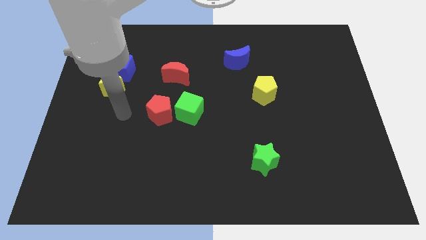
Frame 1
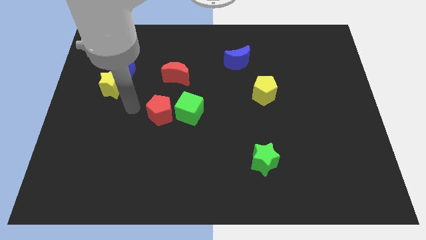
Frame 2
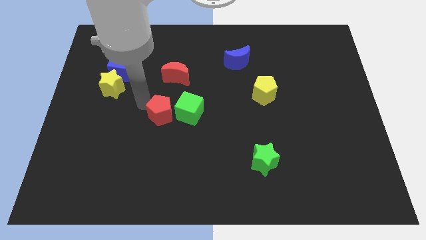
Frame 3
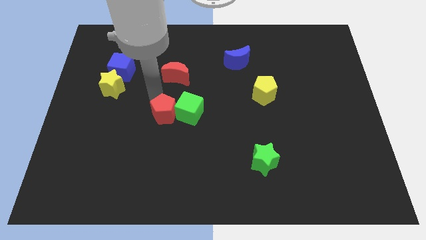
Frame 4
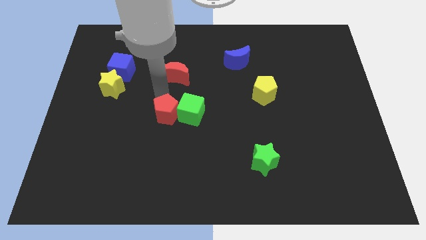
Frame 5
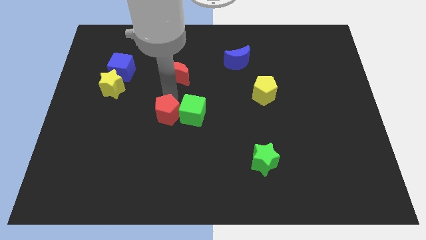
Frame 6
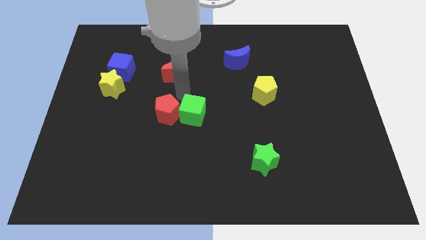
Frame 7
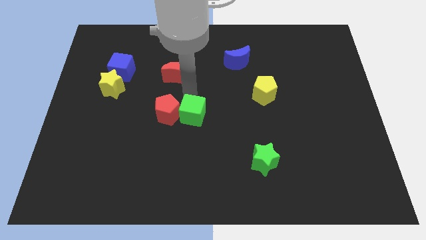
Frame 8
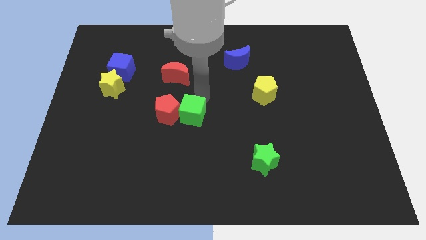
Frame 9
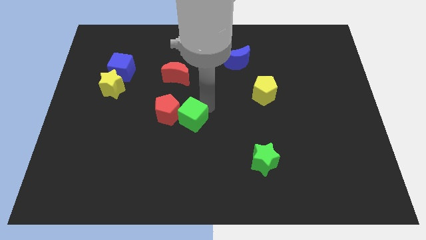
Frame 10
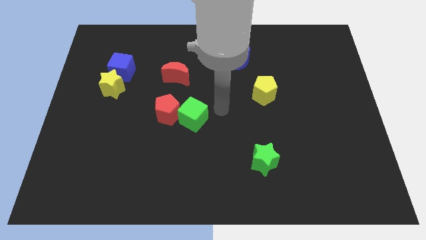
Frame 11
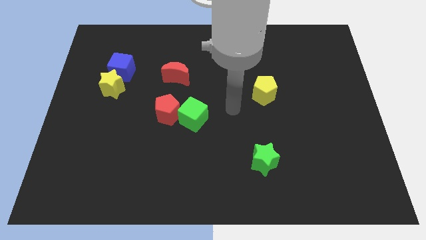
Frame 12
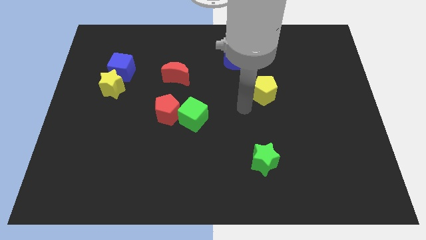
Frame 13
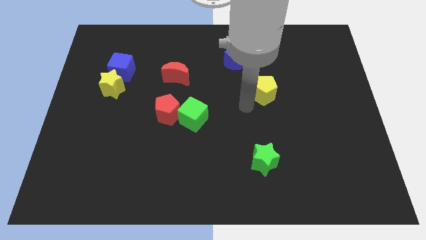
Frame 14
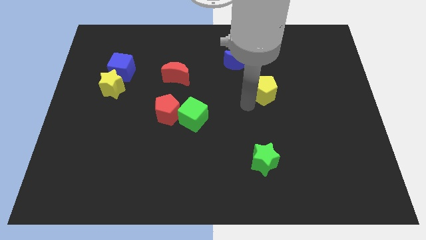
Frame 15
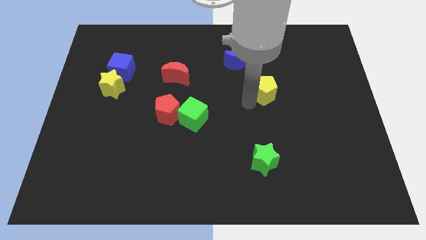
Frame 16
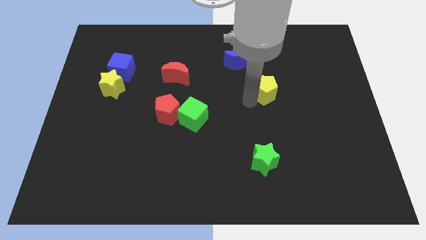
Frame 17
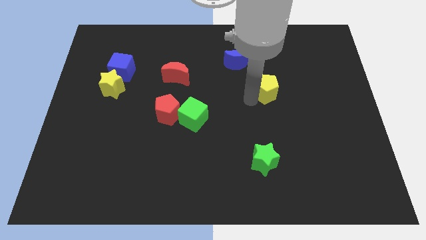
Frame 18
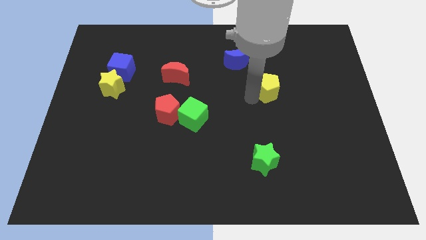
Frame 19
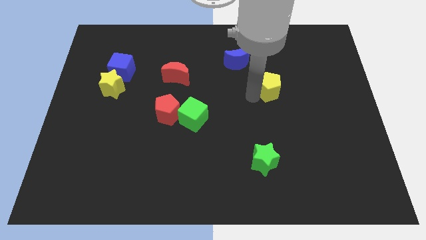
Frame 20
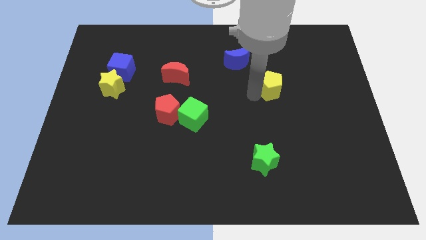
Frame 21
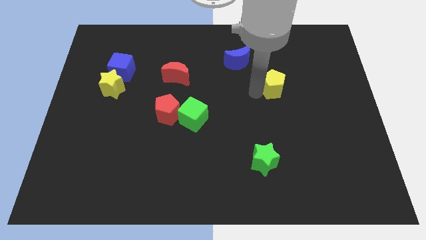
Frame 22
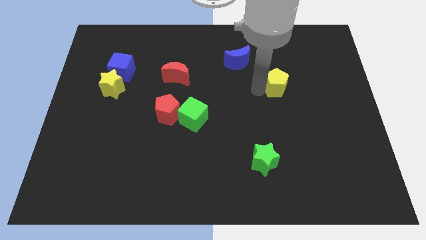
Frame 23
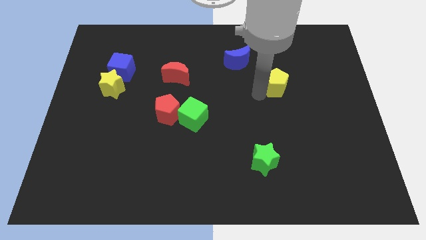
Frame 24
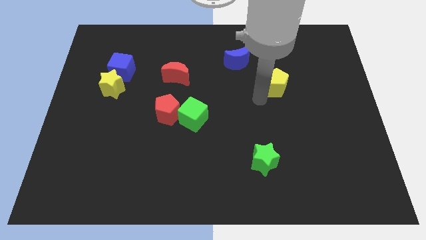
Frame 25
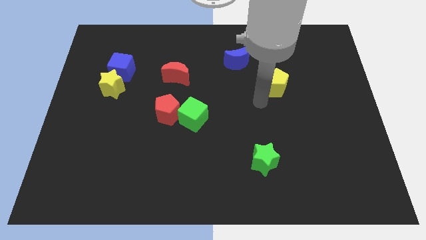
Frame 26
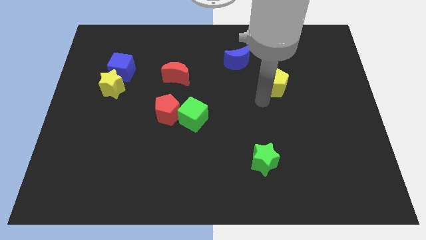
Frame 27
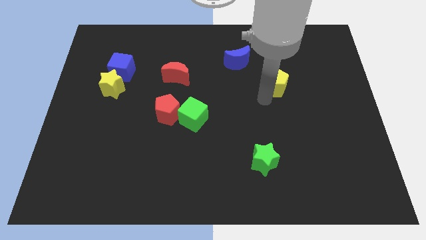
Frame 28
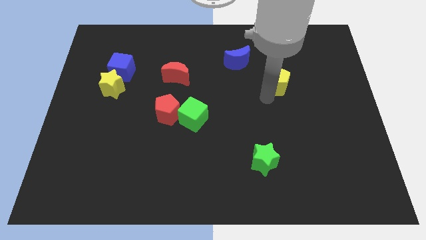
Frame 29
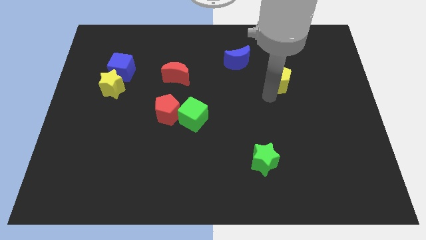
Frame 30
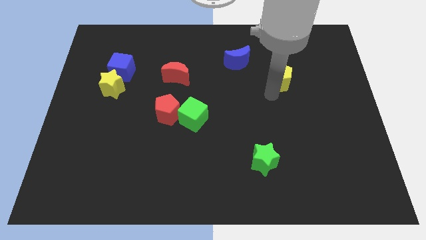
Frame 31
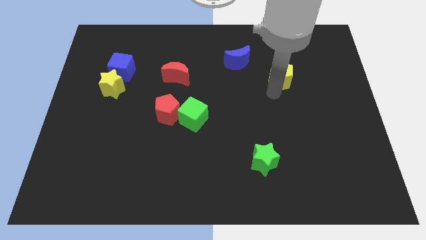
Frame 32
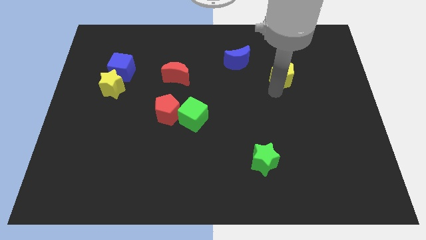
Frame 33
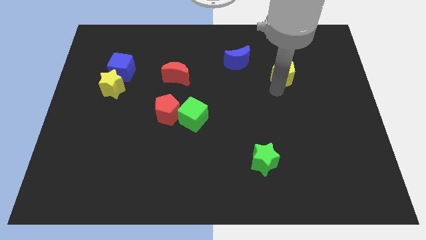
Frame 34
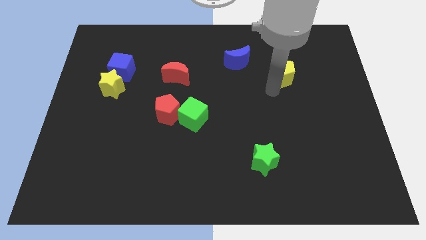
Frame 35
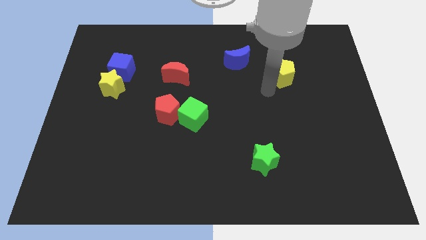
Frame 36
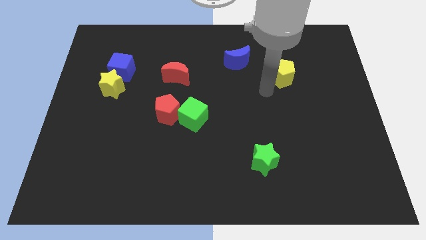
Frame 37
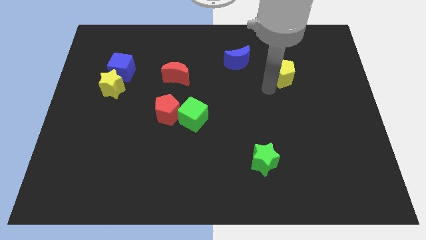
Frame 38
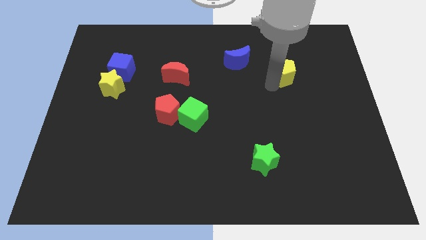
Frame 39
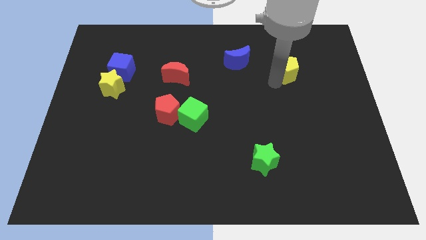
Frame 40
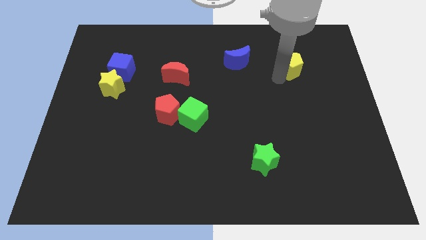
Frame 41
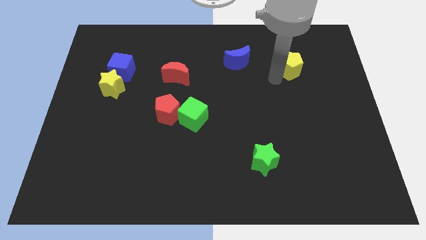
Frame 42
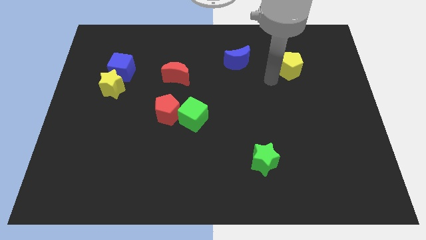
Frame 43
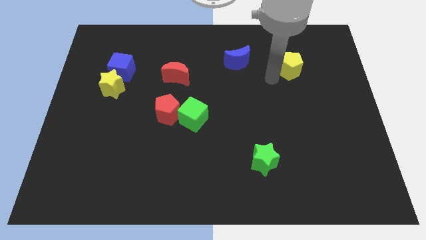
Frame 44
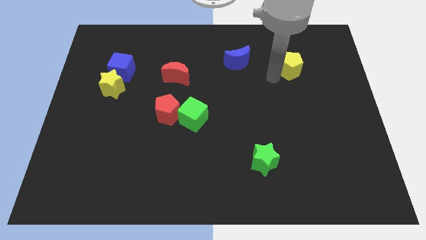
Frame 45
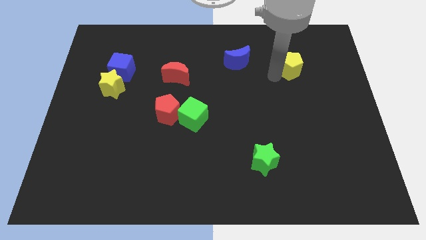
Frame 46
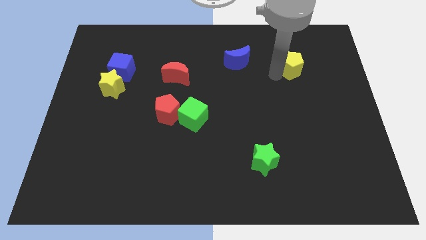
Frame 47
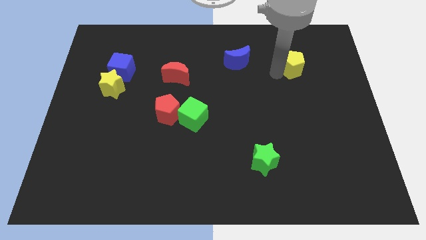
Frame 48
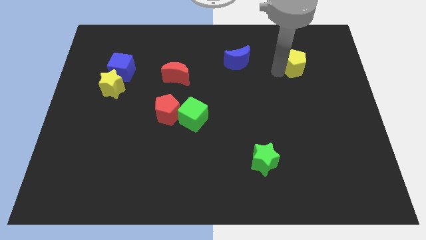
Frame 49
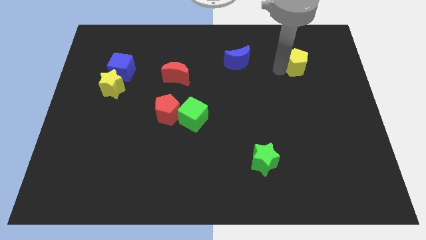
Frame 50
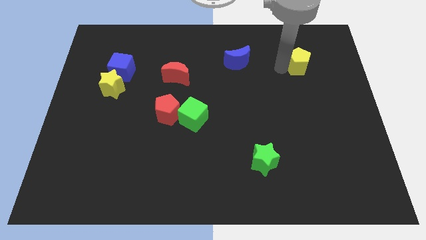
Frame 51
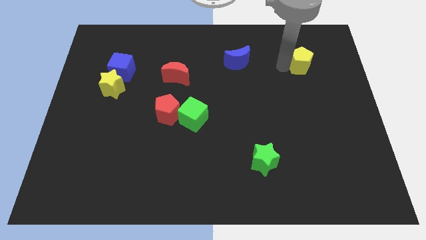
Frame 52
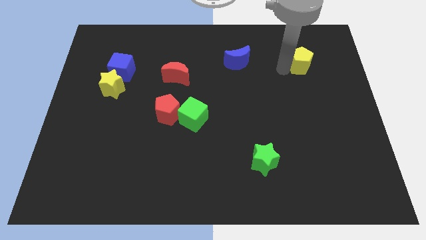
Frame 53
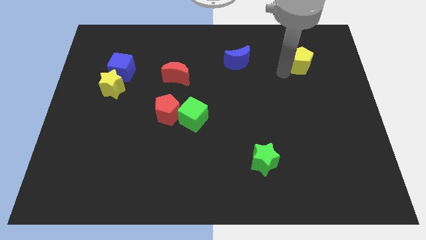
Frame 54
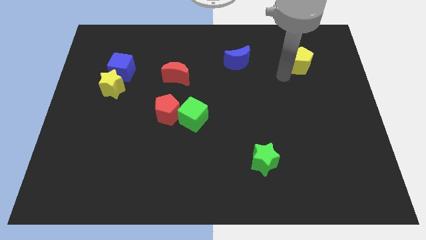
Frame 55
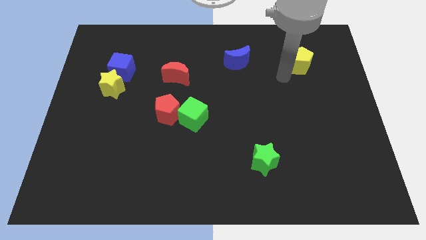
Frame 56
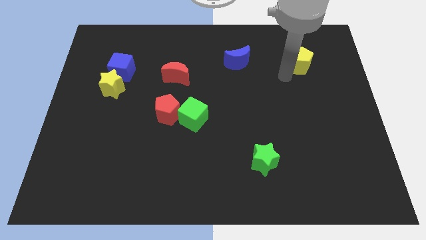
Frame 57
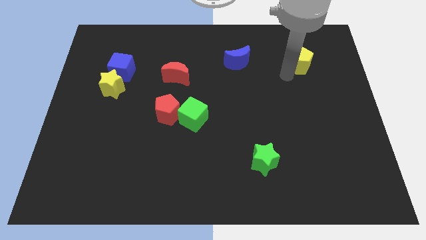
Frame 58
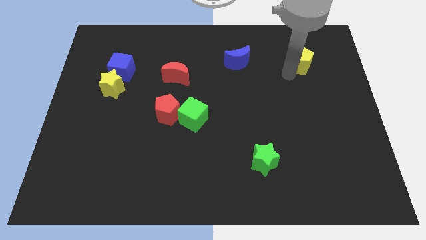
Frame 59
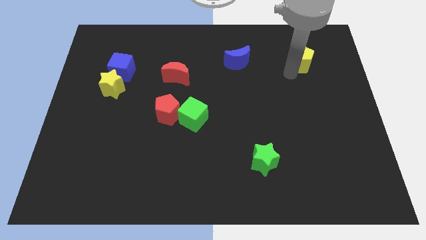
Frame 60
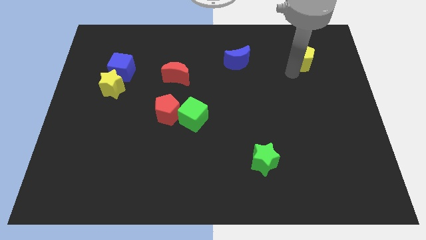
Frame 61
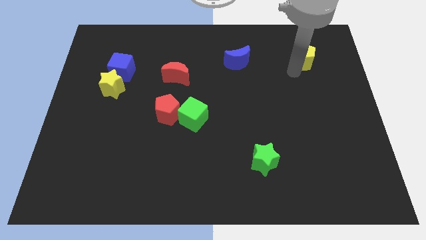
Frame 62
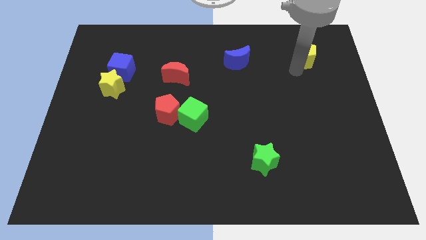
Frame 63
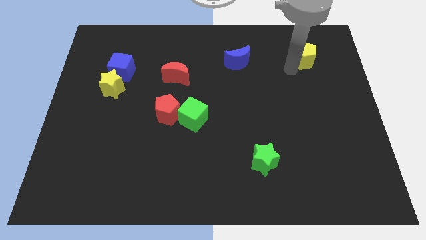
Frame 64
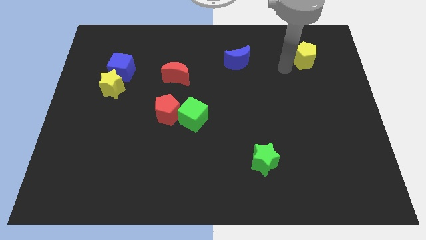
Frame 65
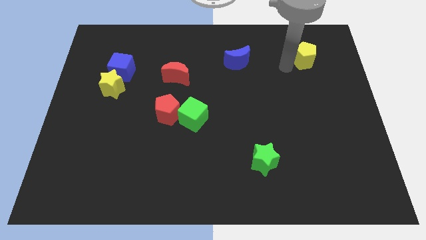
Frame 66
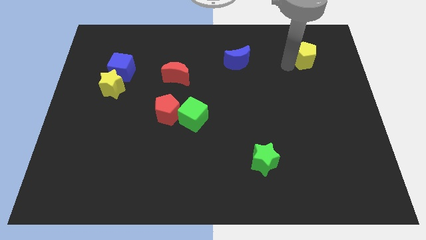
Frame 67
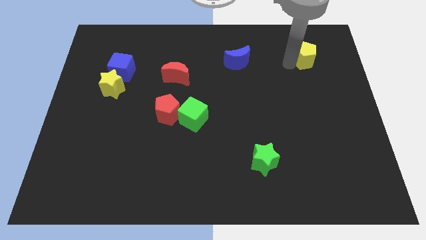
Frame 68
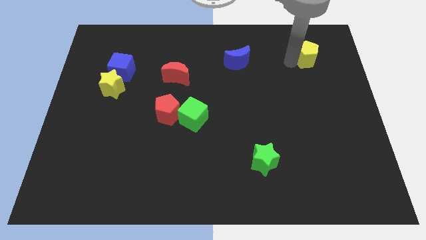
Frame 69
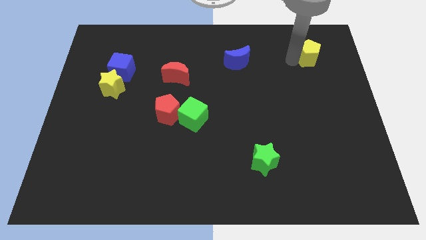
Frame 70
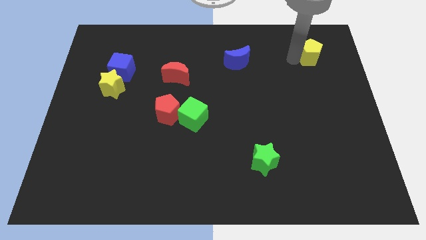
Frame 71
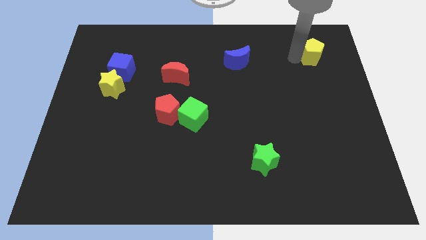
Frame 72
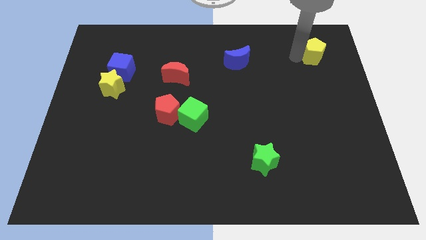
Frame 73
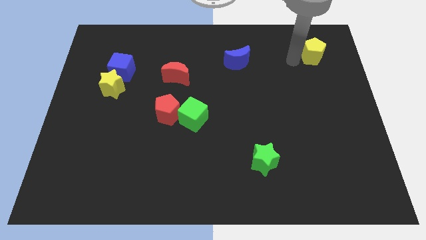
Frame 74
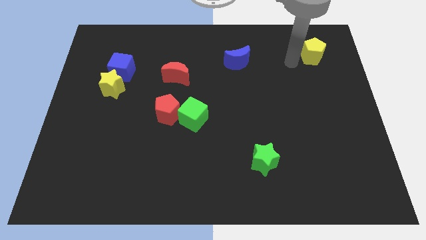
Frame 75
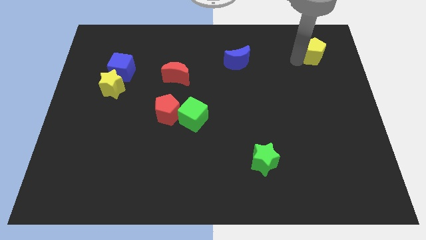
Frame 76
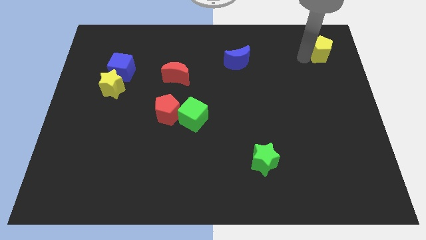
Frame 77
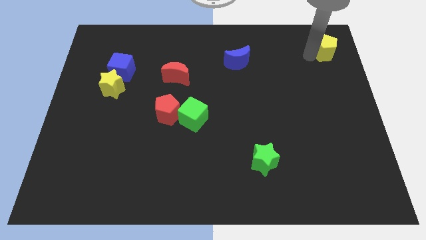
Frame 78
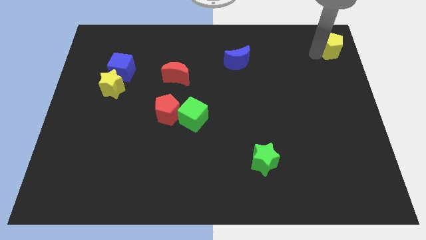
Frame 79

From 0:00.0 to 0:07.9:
slide the yellow pentagon to the top right
